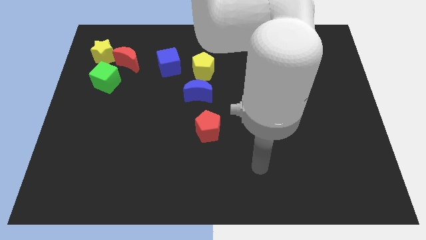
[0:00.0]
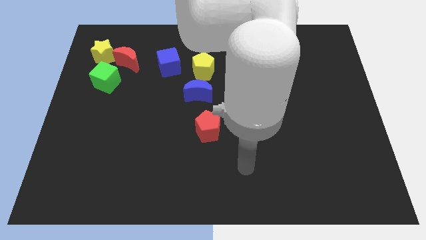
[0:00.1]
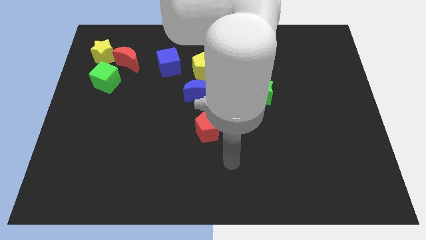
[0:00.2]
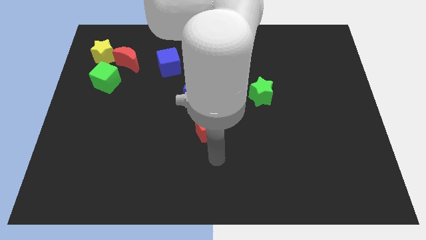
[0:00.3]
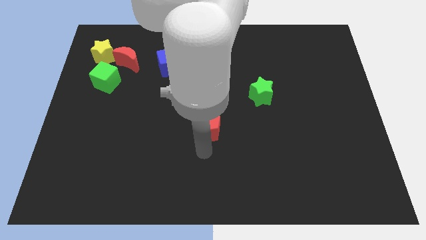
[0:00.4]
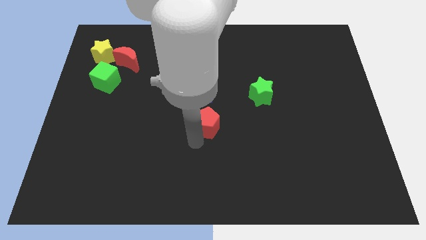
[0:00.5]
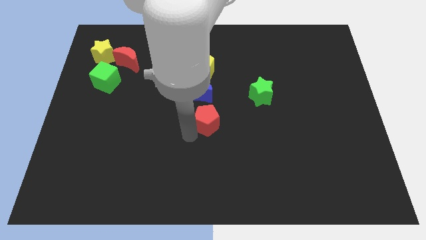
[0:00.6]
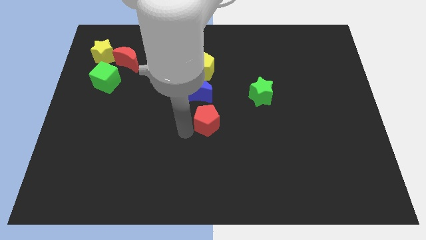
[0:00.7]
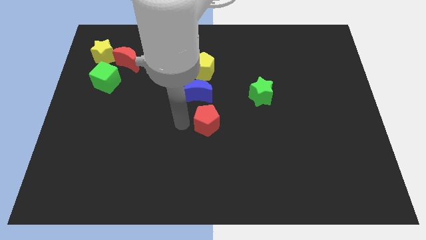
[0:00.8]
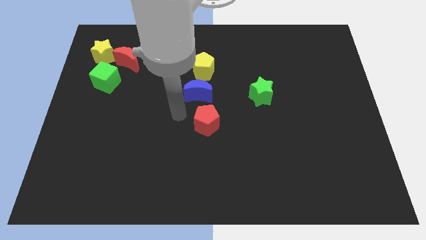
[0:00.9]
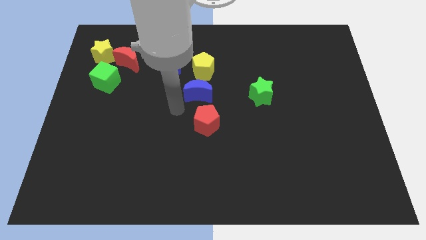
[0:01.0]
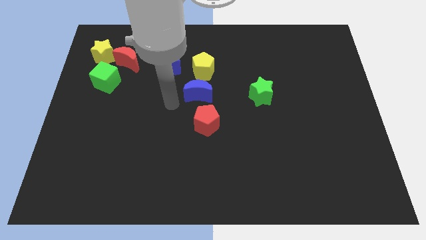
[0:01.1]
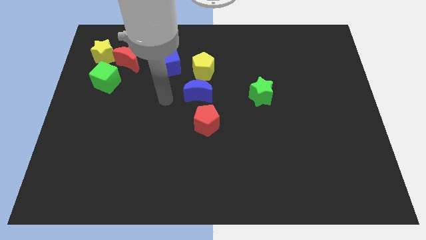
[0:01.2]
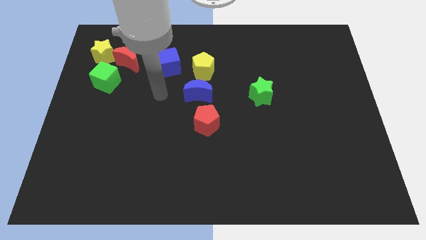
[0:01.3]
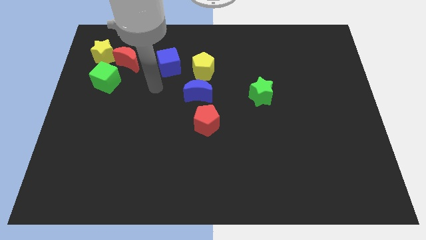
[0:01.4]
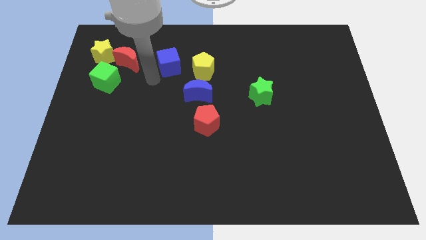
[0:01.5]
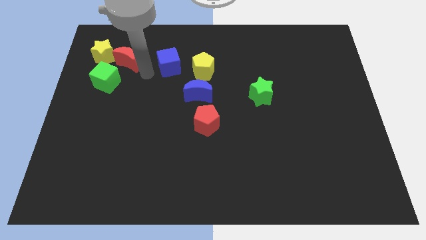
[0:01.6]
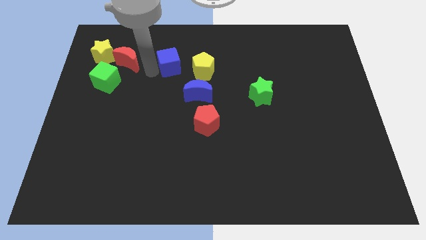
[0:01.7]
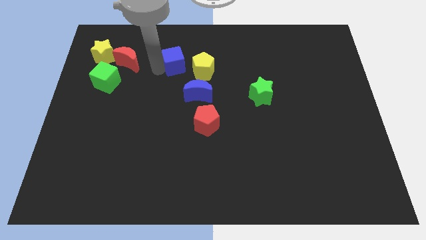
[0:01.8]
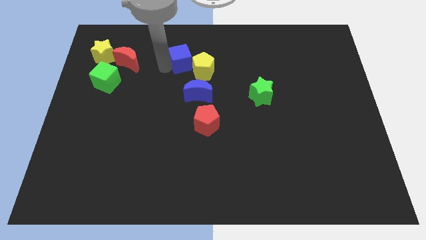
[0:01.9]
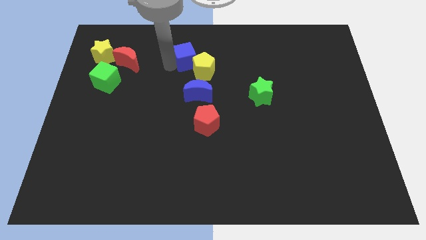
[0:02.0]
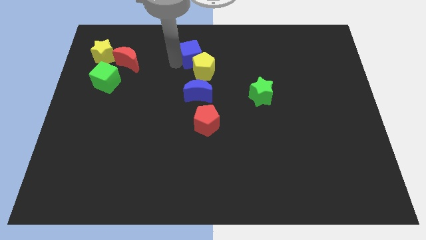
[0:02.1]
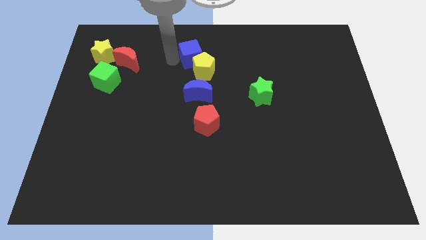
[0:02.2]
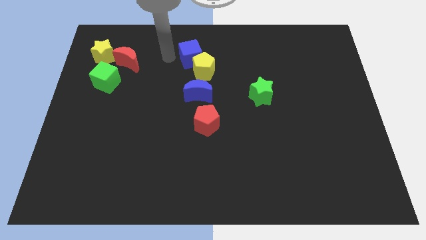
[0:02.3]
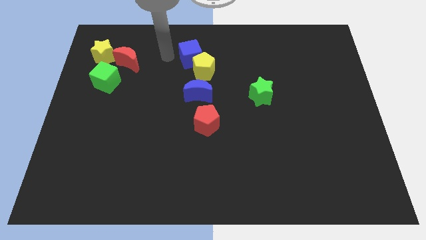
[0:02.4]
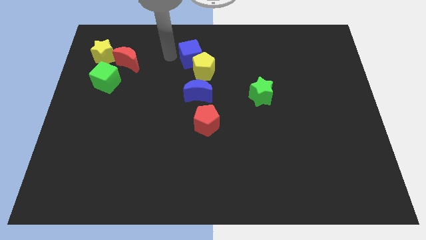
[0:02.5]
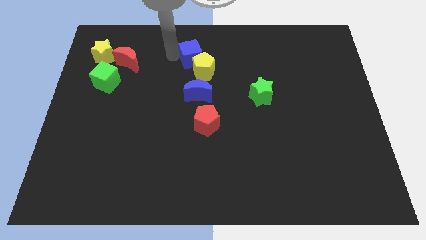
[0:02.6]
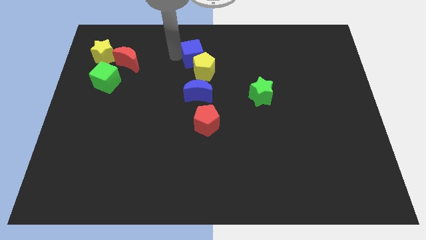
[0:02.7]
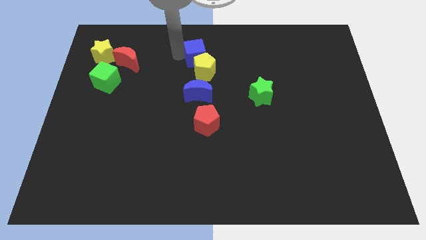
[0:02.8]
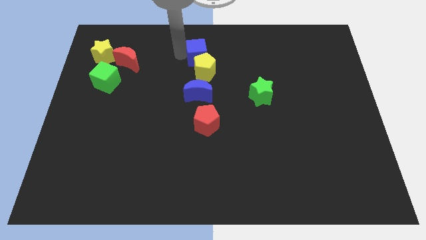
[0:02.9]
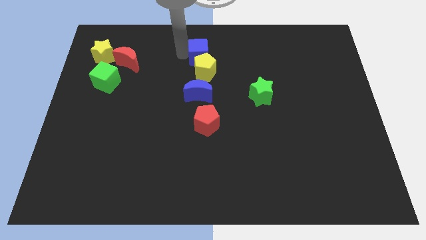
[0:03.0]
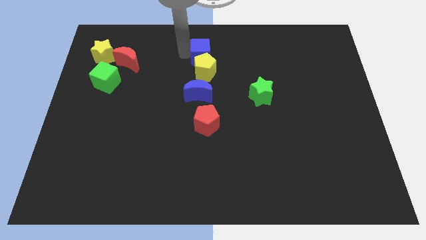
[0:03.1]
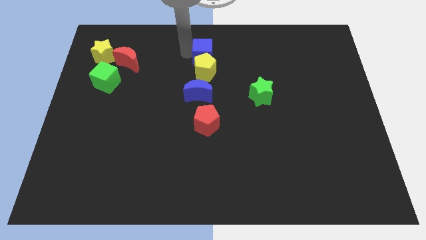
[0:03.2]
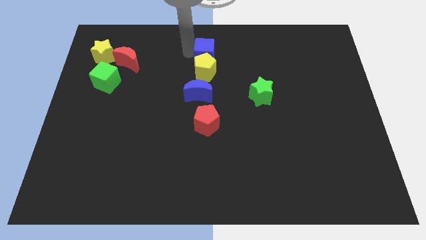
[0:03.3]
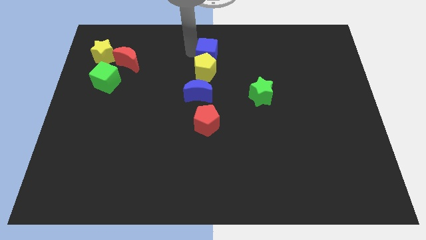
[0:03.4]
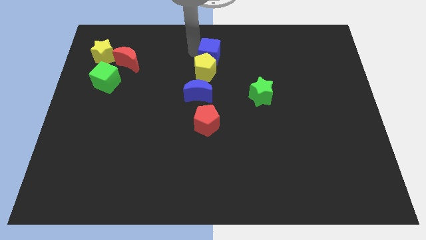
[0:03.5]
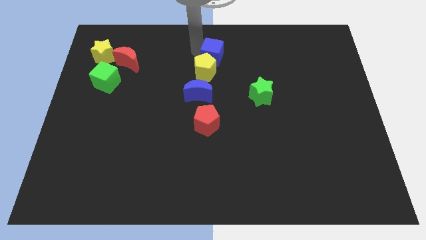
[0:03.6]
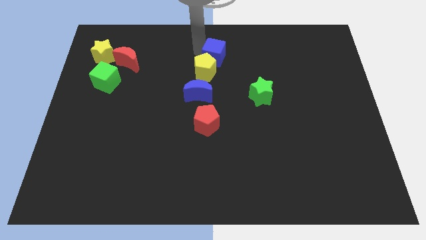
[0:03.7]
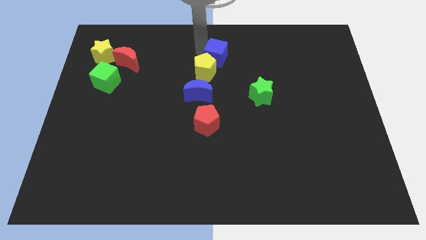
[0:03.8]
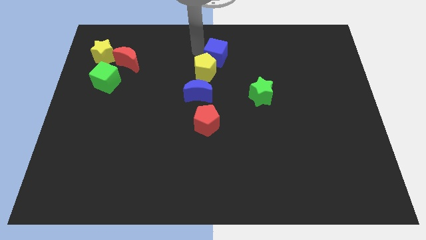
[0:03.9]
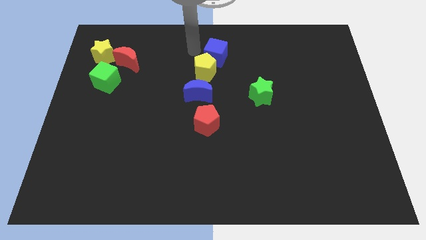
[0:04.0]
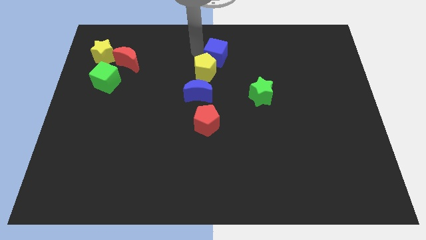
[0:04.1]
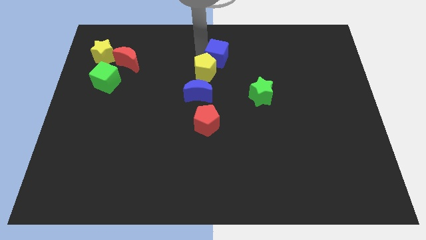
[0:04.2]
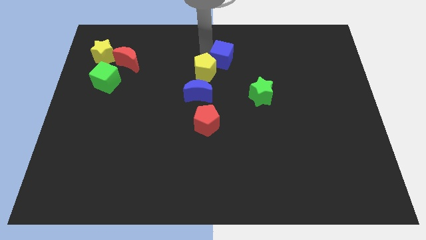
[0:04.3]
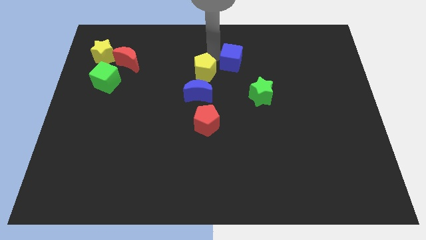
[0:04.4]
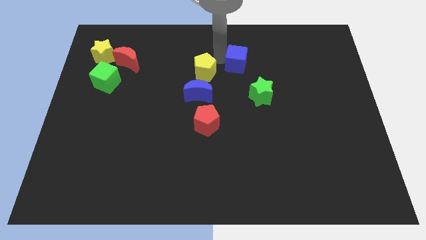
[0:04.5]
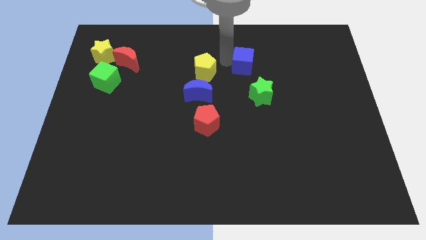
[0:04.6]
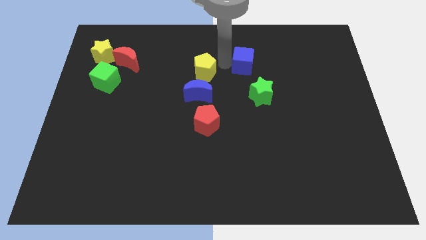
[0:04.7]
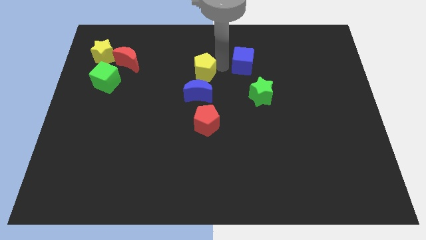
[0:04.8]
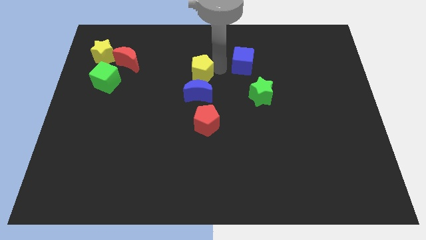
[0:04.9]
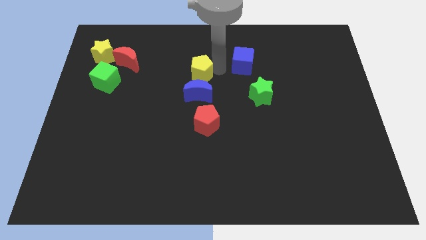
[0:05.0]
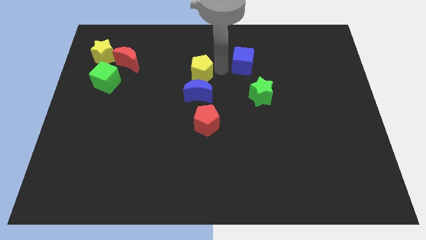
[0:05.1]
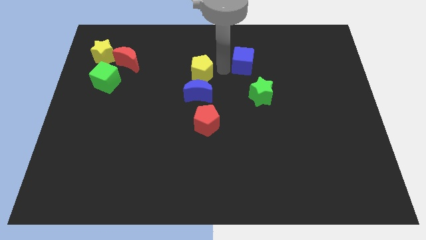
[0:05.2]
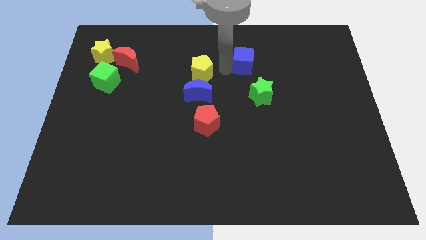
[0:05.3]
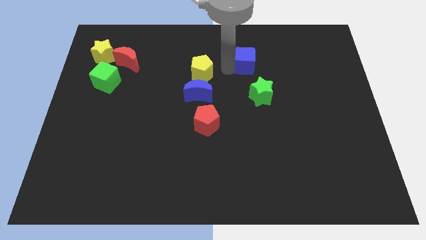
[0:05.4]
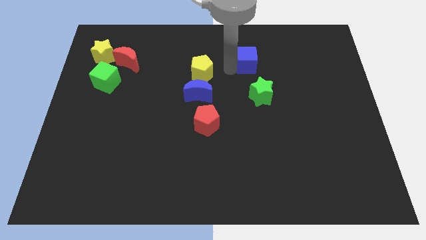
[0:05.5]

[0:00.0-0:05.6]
push the blue cube to the right

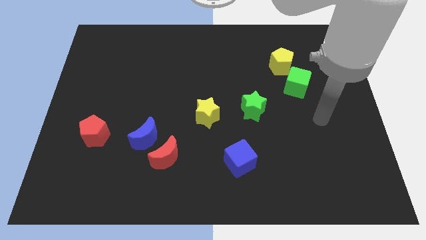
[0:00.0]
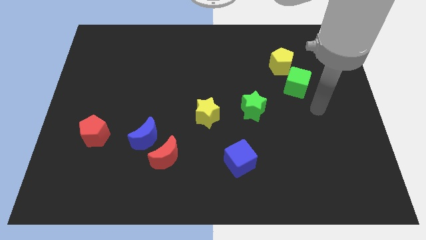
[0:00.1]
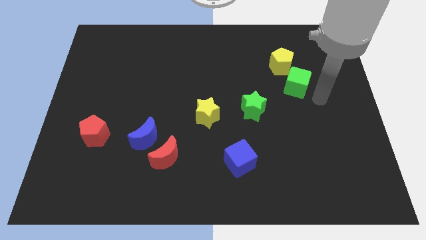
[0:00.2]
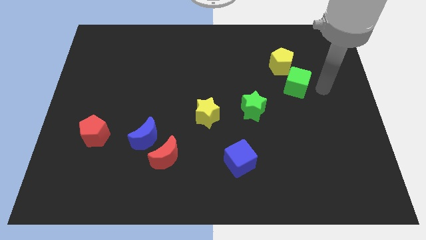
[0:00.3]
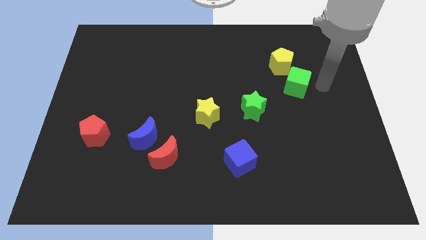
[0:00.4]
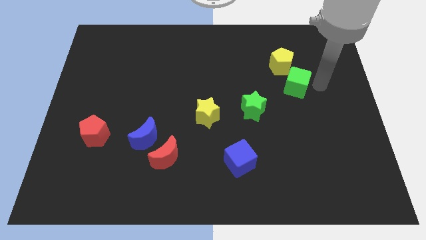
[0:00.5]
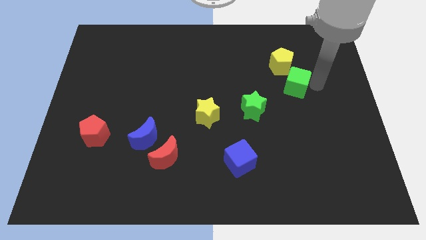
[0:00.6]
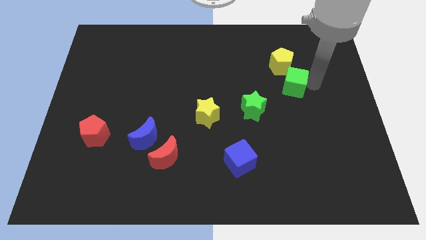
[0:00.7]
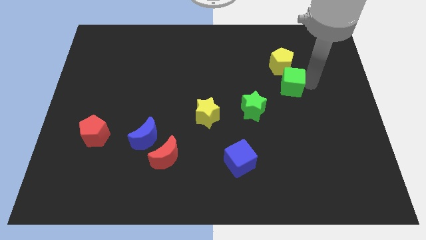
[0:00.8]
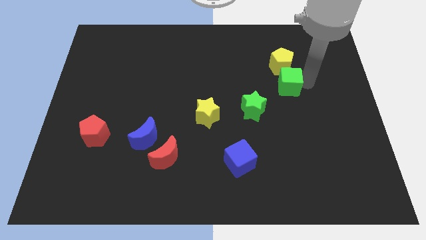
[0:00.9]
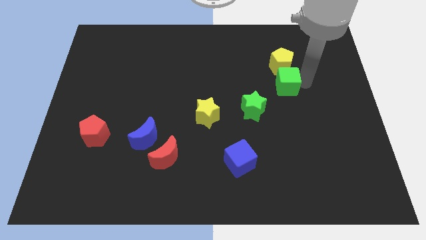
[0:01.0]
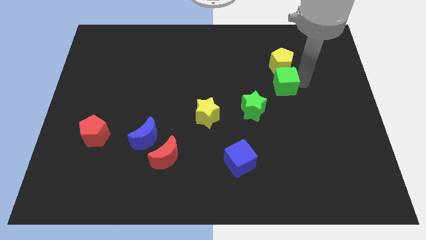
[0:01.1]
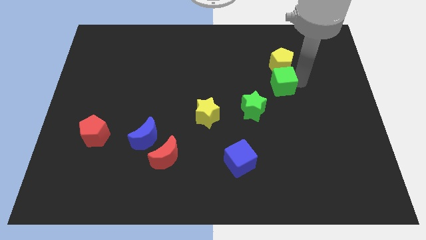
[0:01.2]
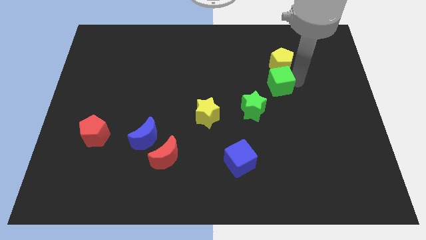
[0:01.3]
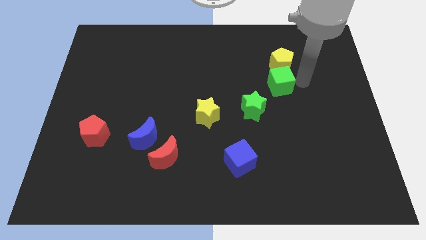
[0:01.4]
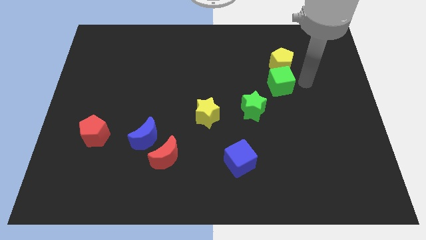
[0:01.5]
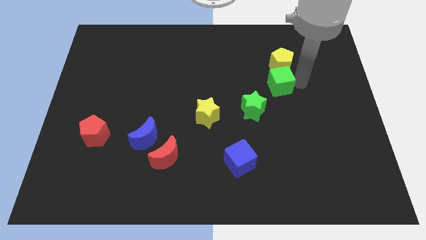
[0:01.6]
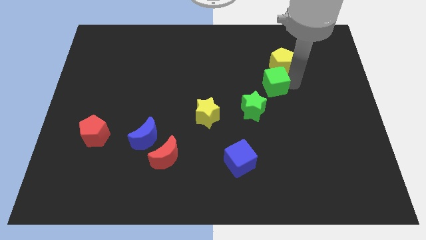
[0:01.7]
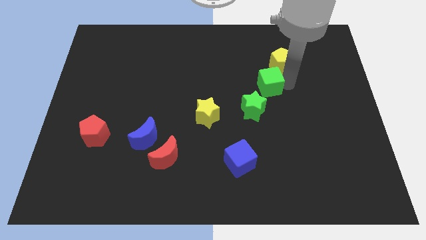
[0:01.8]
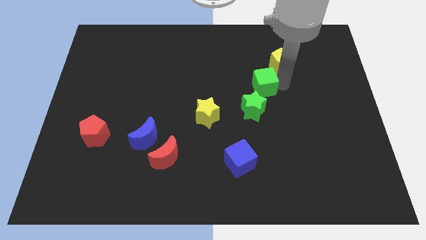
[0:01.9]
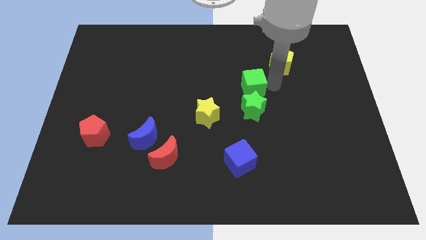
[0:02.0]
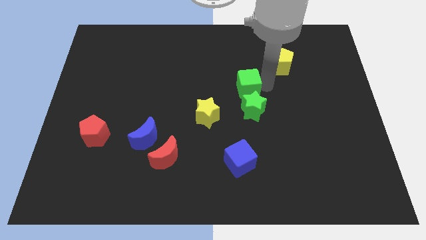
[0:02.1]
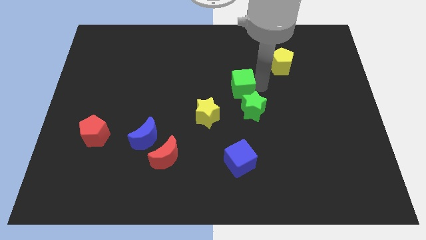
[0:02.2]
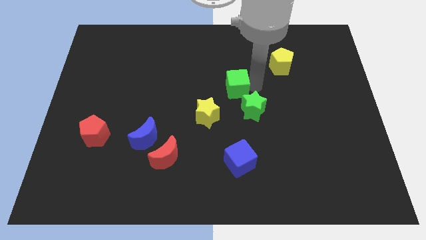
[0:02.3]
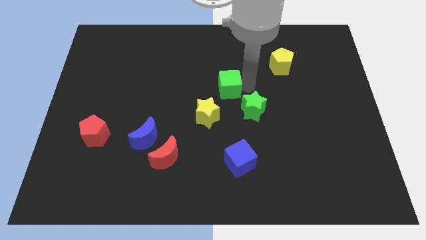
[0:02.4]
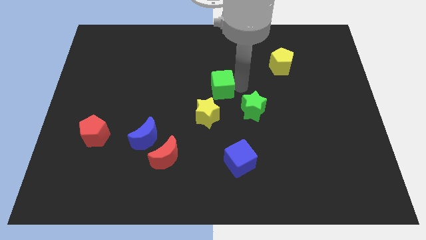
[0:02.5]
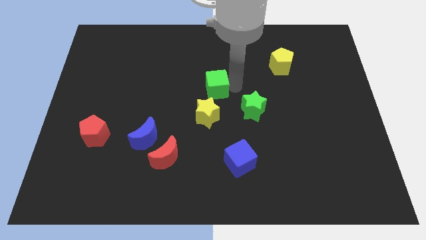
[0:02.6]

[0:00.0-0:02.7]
slide the green cube left
